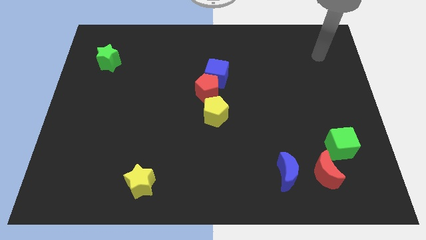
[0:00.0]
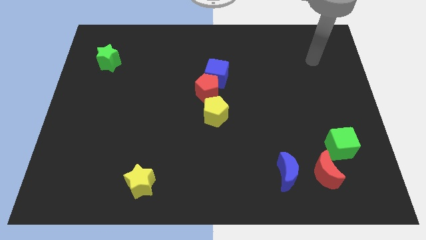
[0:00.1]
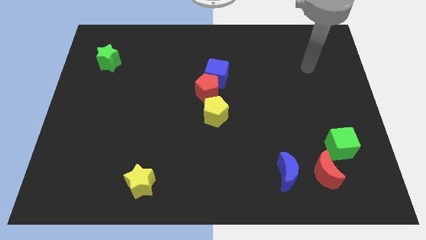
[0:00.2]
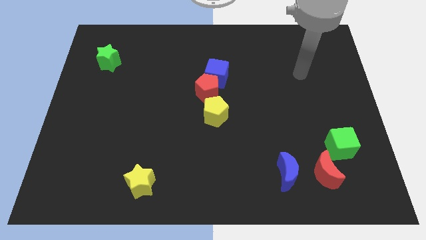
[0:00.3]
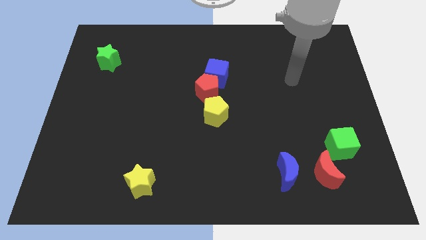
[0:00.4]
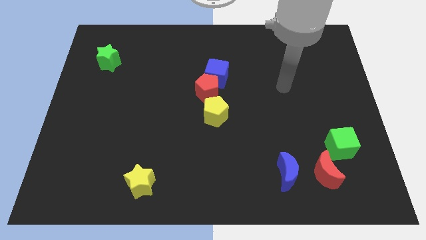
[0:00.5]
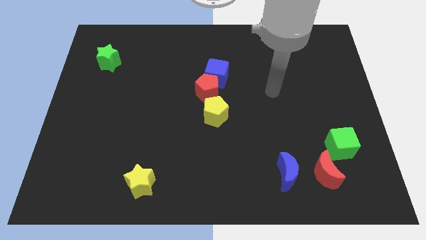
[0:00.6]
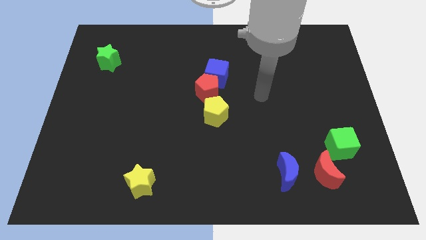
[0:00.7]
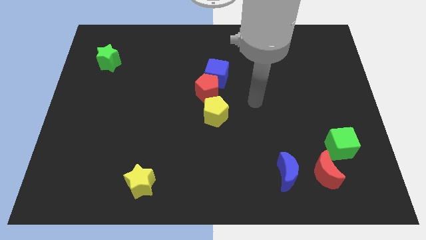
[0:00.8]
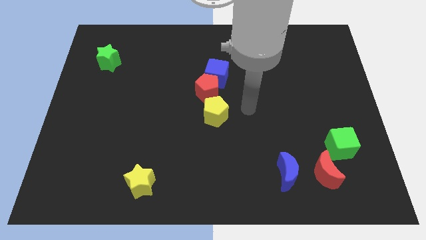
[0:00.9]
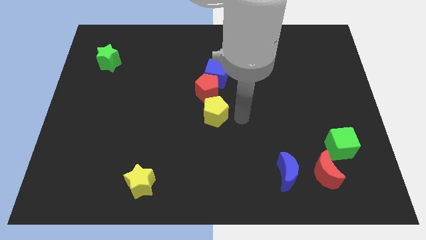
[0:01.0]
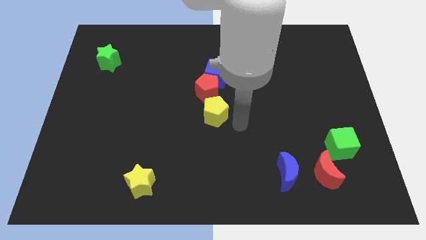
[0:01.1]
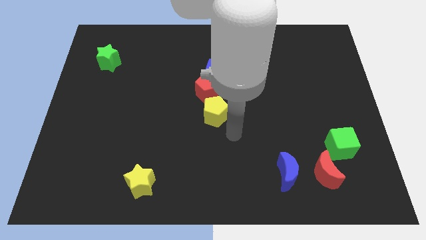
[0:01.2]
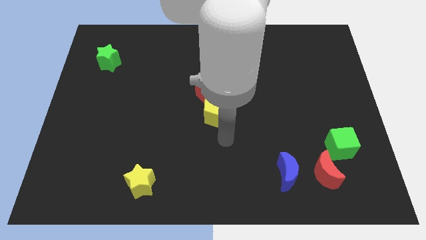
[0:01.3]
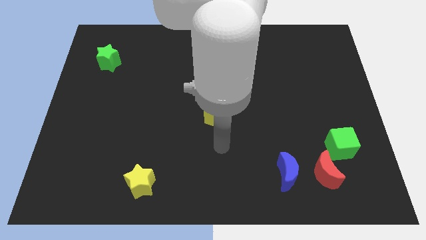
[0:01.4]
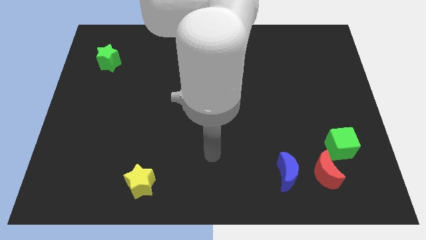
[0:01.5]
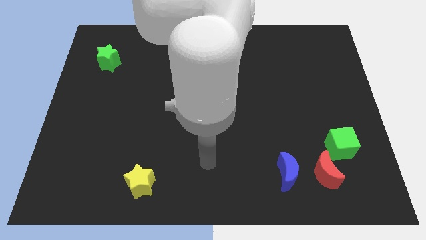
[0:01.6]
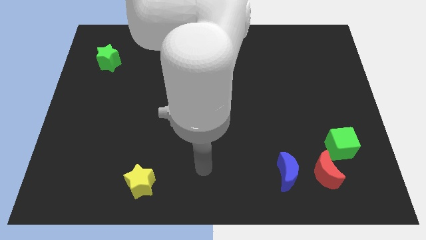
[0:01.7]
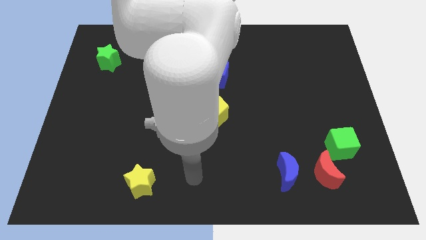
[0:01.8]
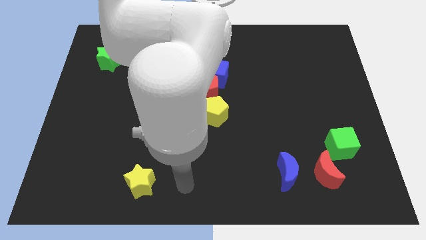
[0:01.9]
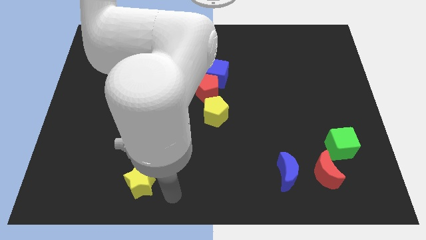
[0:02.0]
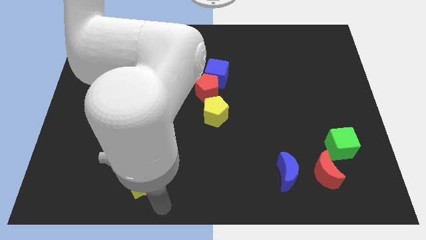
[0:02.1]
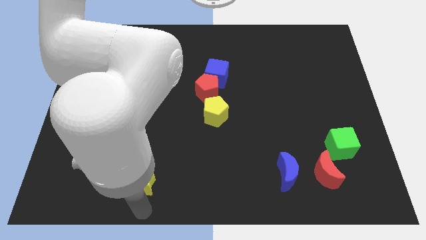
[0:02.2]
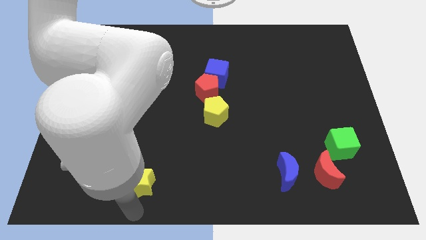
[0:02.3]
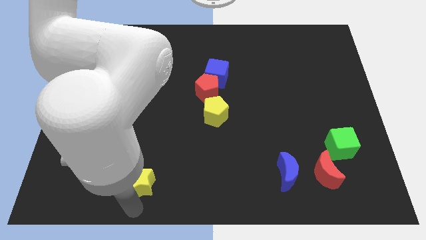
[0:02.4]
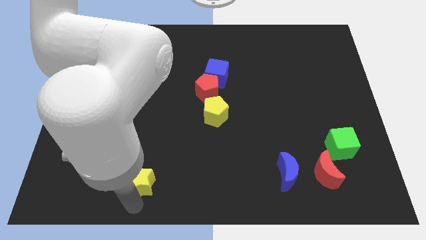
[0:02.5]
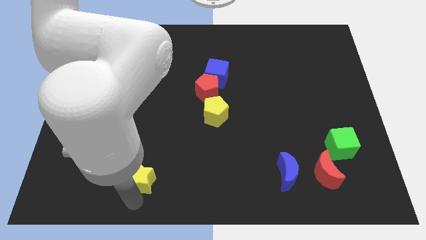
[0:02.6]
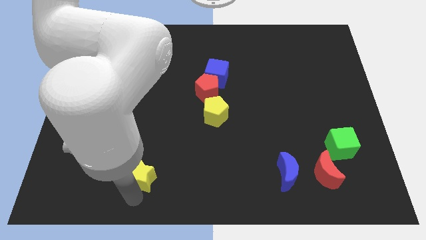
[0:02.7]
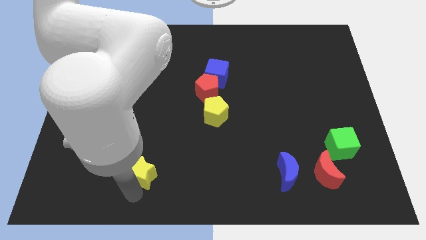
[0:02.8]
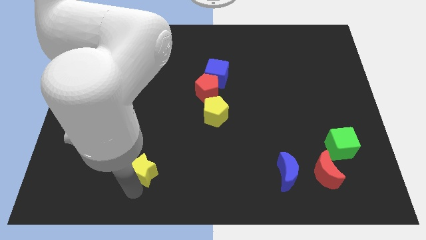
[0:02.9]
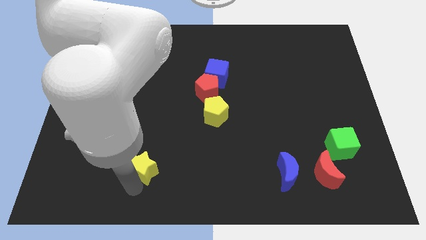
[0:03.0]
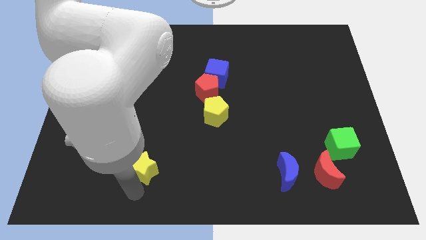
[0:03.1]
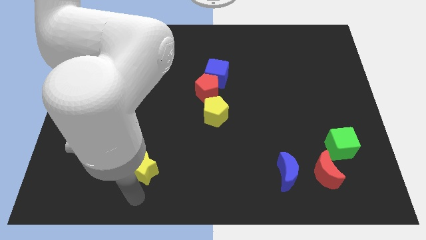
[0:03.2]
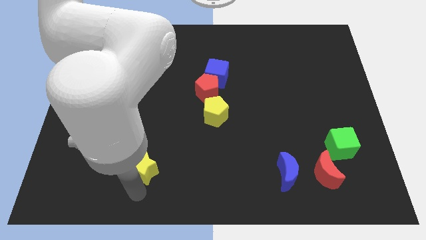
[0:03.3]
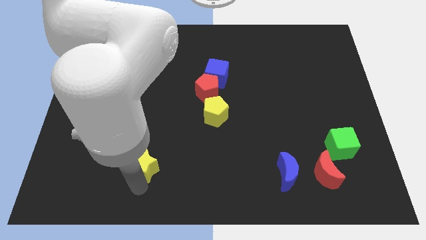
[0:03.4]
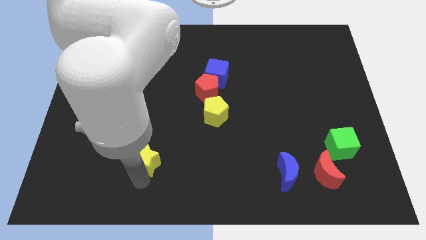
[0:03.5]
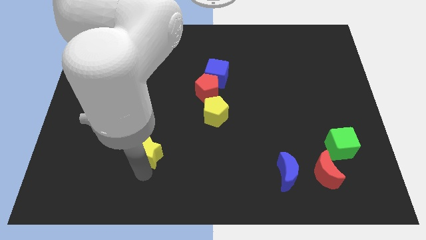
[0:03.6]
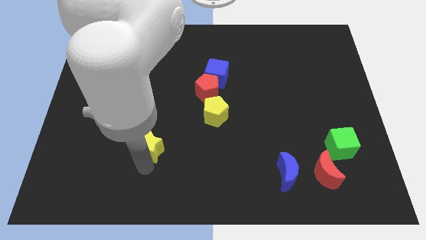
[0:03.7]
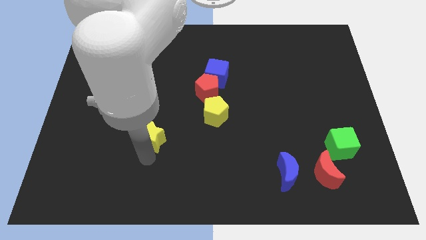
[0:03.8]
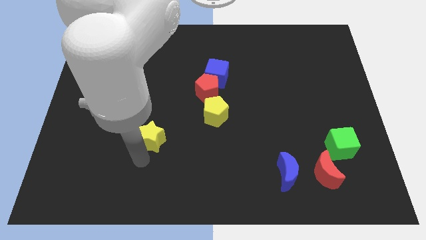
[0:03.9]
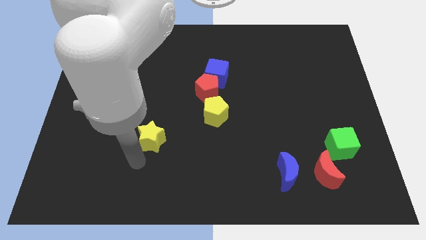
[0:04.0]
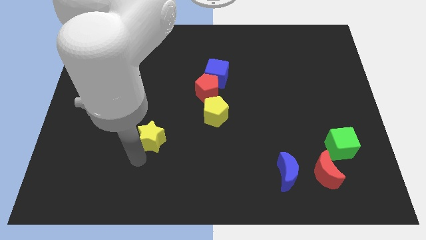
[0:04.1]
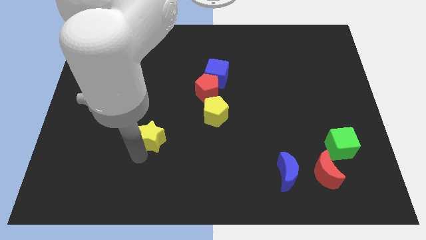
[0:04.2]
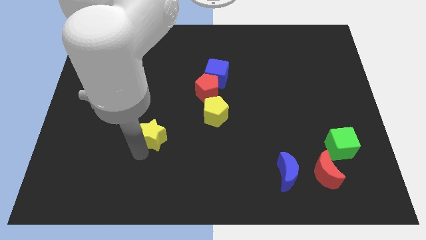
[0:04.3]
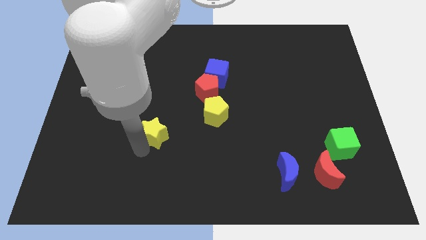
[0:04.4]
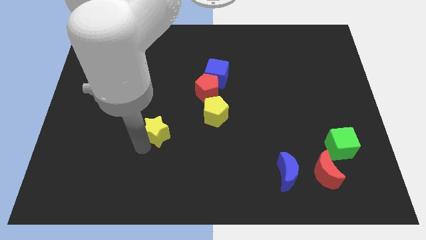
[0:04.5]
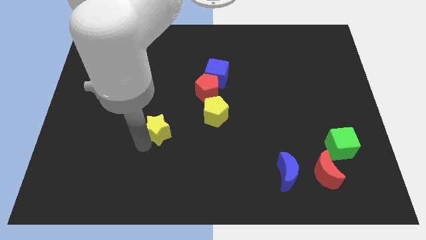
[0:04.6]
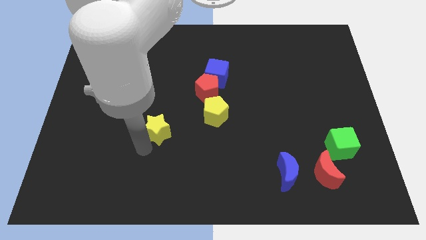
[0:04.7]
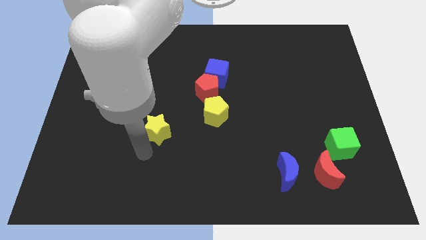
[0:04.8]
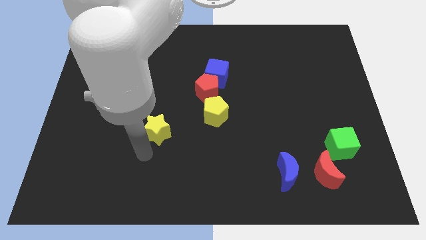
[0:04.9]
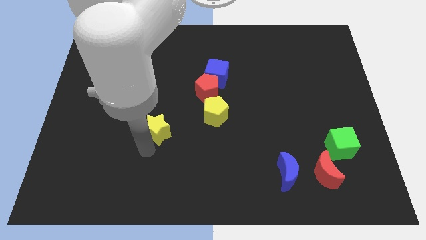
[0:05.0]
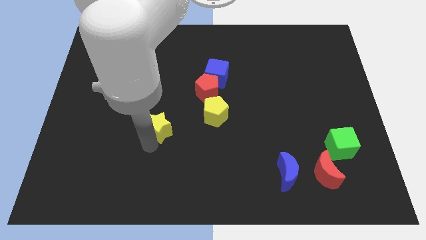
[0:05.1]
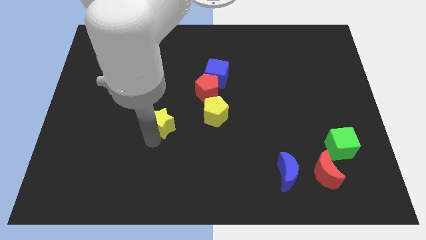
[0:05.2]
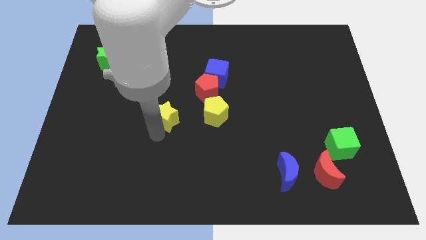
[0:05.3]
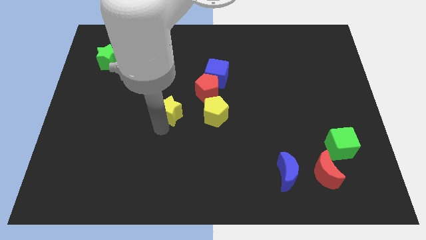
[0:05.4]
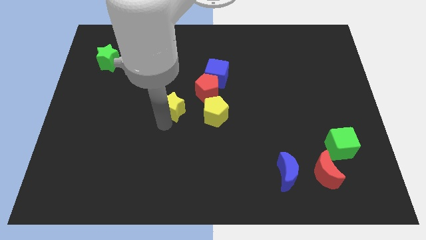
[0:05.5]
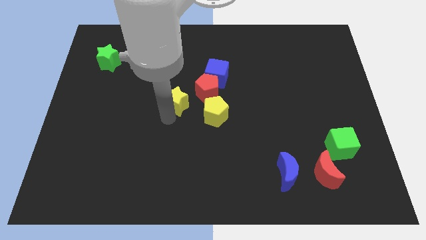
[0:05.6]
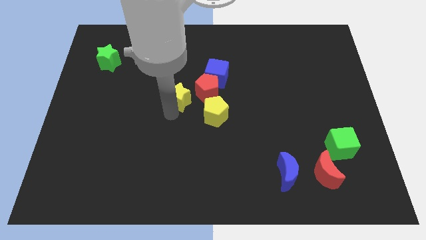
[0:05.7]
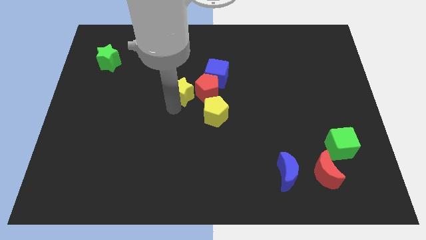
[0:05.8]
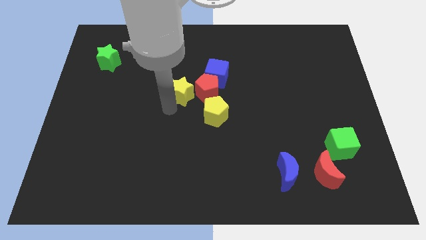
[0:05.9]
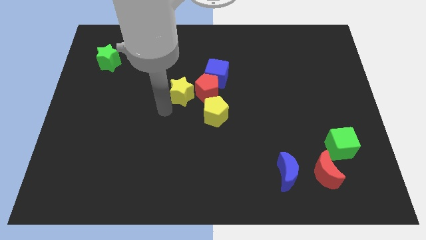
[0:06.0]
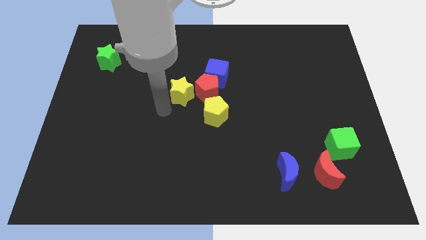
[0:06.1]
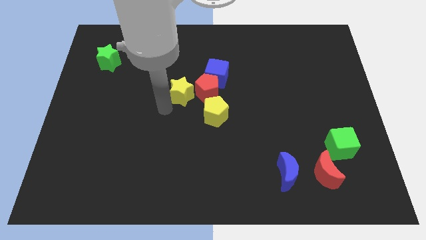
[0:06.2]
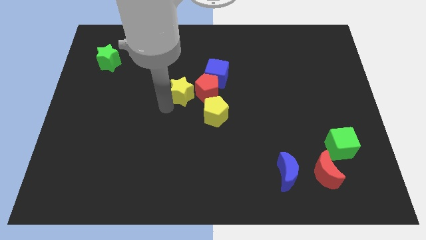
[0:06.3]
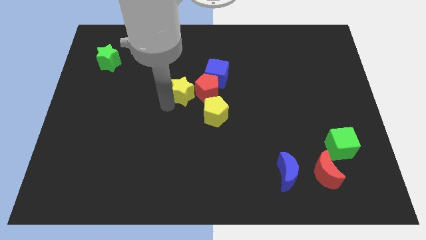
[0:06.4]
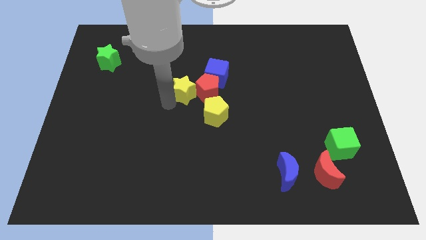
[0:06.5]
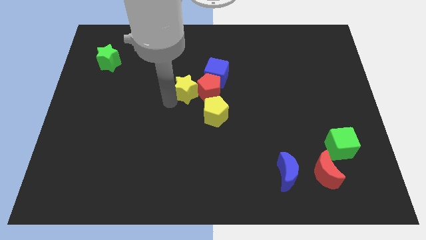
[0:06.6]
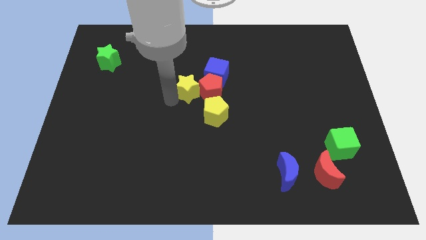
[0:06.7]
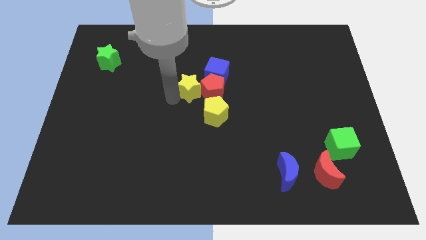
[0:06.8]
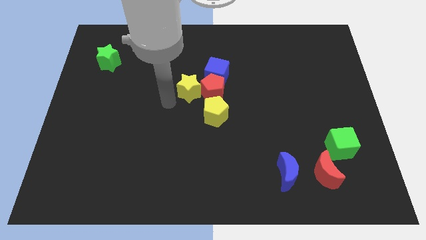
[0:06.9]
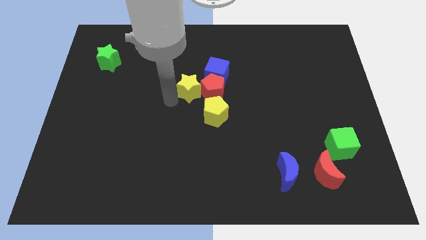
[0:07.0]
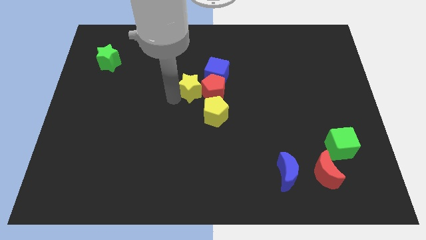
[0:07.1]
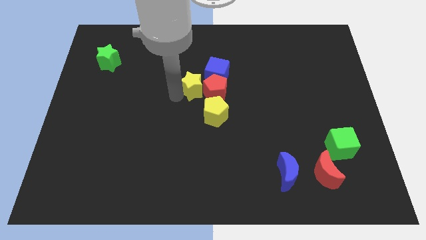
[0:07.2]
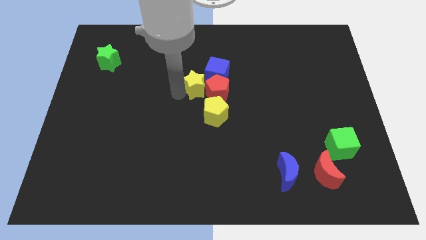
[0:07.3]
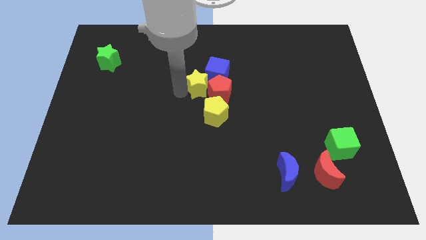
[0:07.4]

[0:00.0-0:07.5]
push the yellow star towards the blue cube
